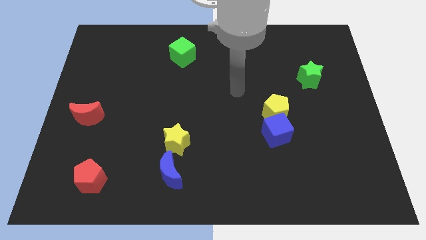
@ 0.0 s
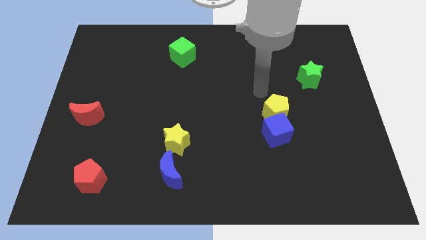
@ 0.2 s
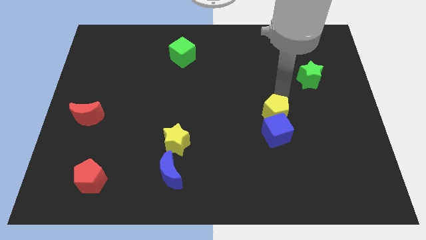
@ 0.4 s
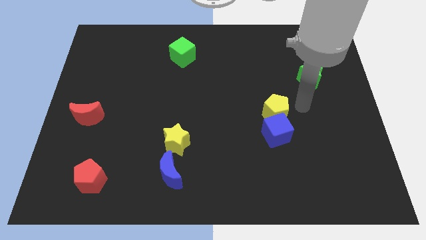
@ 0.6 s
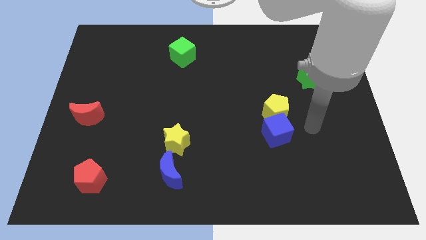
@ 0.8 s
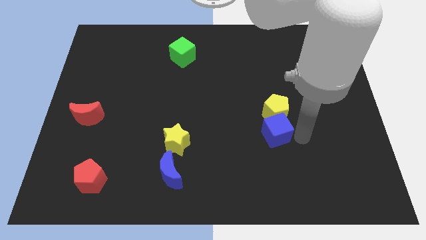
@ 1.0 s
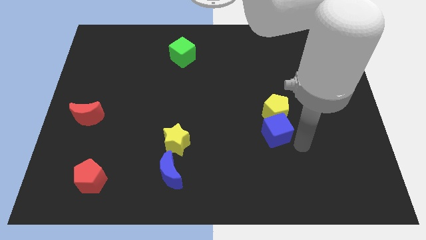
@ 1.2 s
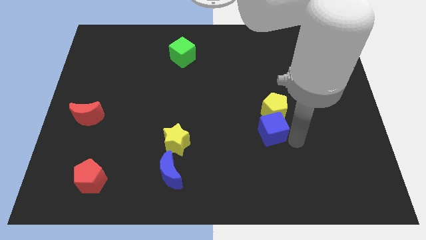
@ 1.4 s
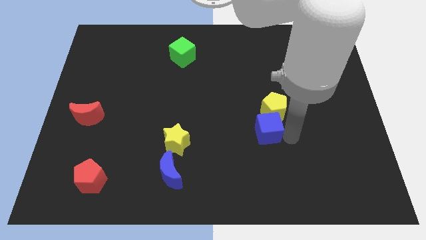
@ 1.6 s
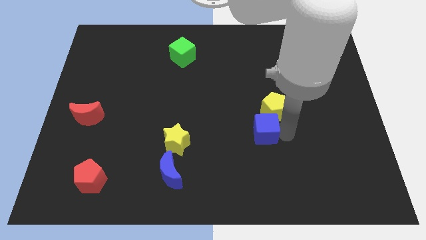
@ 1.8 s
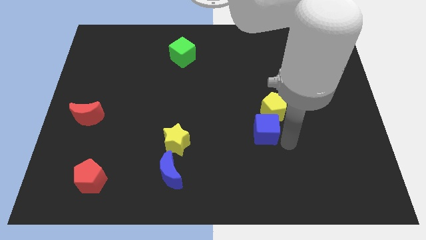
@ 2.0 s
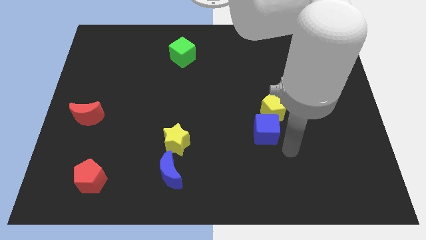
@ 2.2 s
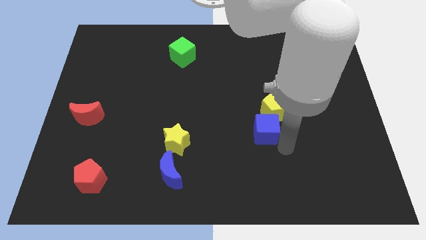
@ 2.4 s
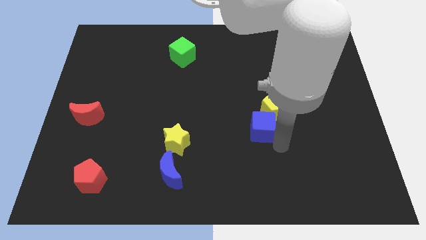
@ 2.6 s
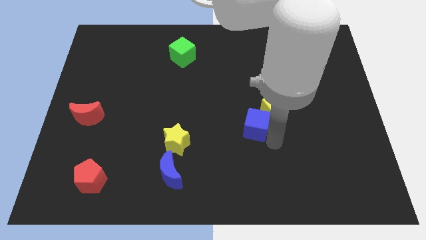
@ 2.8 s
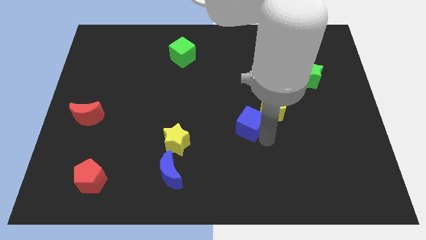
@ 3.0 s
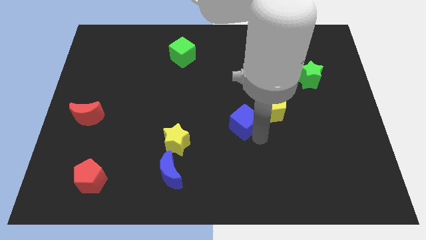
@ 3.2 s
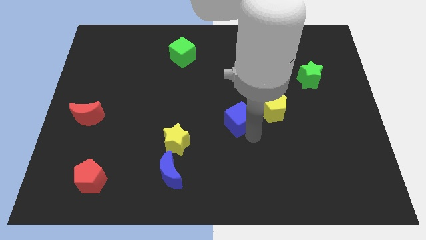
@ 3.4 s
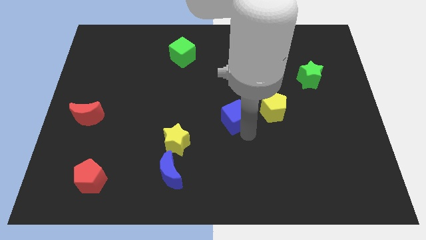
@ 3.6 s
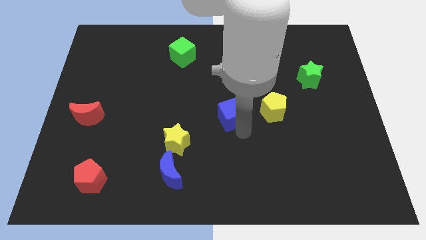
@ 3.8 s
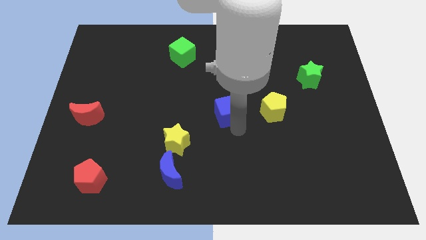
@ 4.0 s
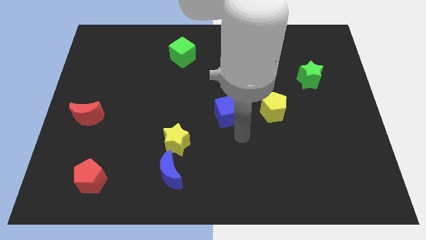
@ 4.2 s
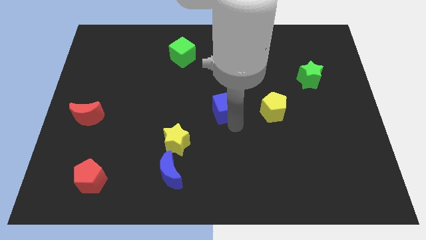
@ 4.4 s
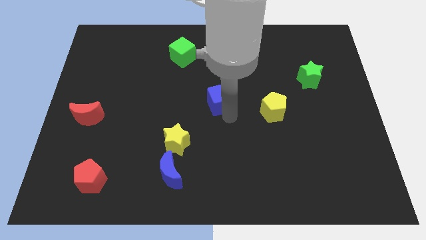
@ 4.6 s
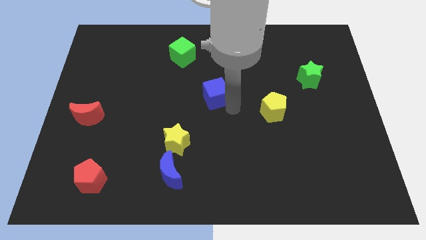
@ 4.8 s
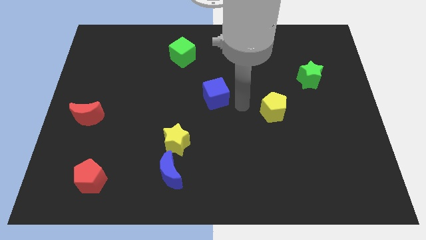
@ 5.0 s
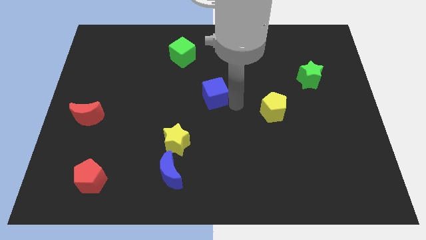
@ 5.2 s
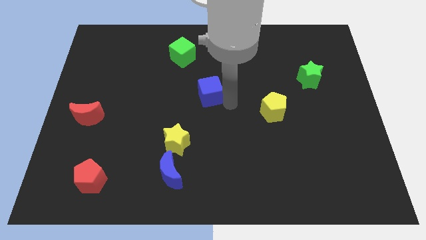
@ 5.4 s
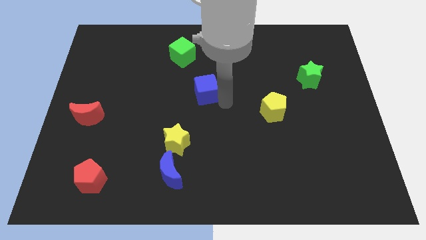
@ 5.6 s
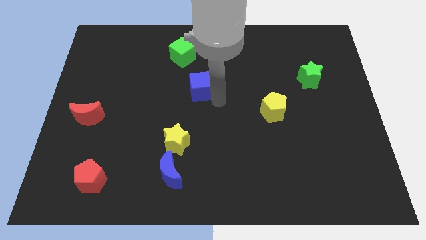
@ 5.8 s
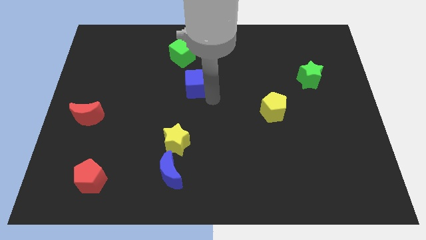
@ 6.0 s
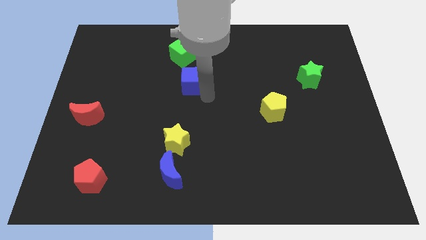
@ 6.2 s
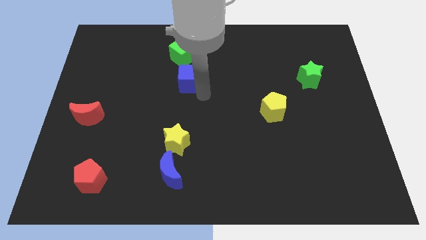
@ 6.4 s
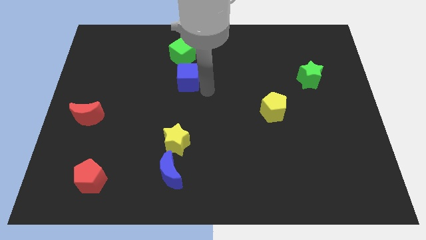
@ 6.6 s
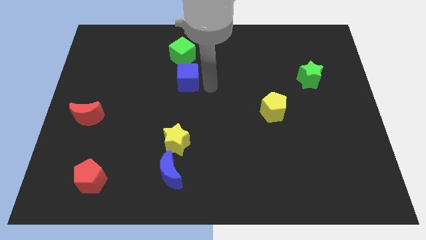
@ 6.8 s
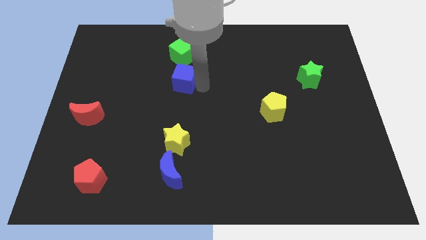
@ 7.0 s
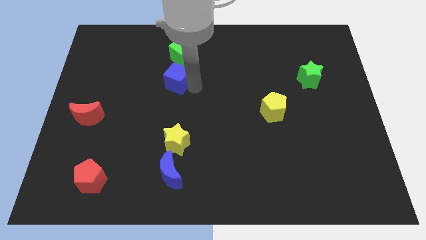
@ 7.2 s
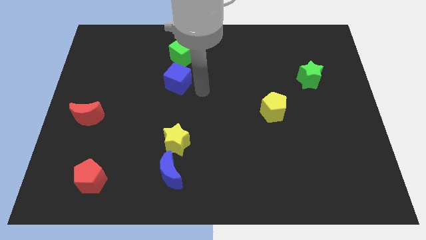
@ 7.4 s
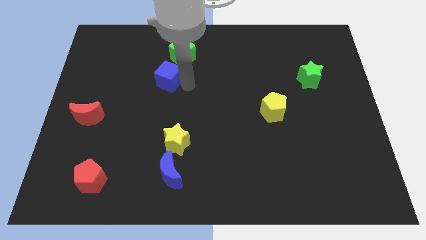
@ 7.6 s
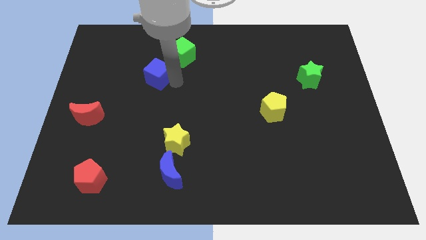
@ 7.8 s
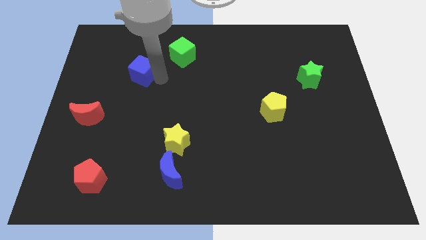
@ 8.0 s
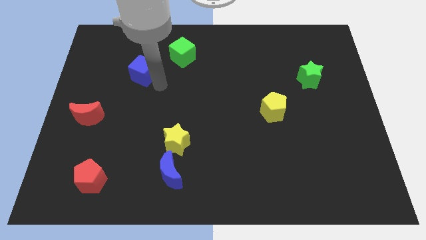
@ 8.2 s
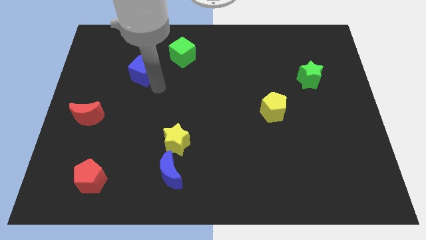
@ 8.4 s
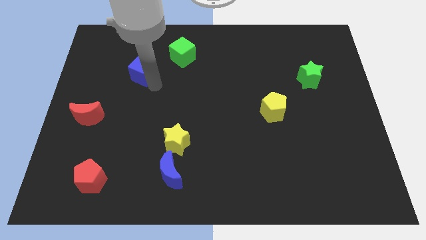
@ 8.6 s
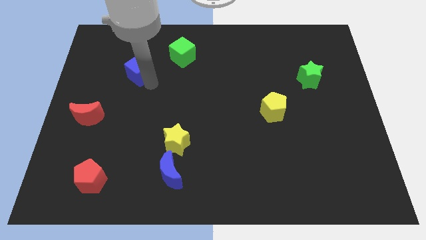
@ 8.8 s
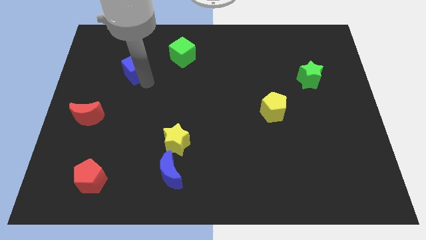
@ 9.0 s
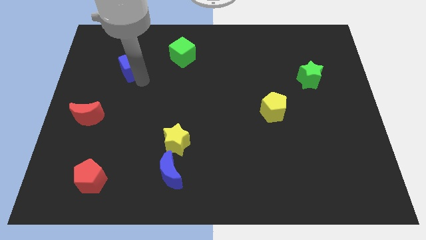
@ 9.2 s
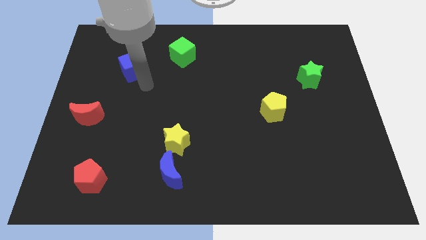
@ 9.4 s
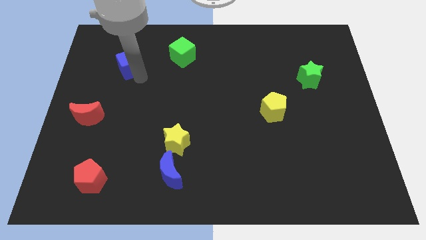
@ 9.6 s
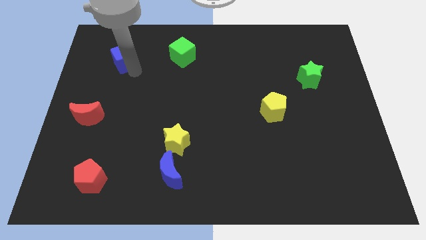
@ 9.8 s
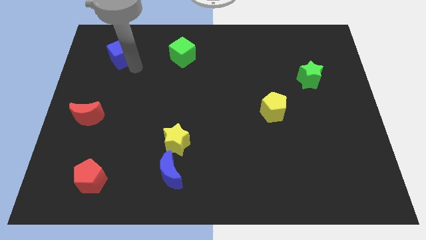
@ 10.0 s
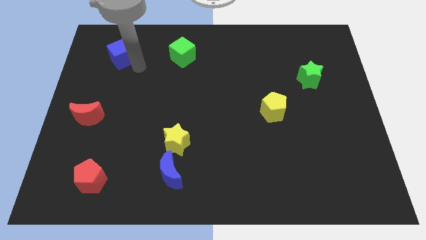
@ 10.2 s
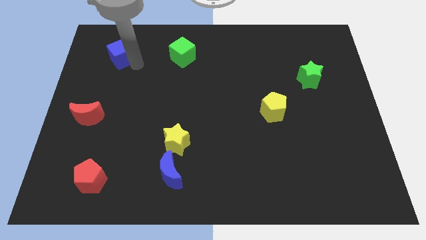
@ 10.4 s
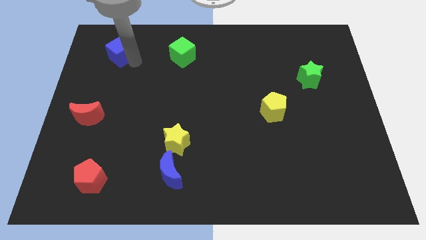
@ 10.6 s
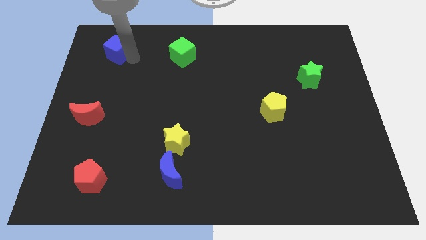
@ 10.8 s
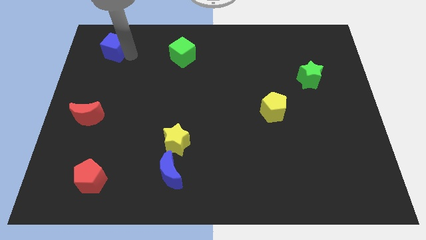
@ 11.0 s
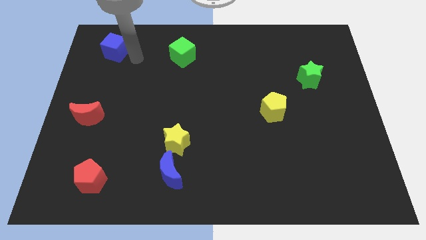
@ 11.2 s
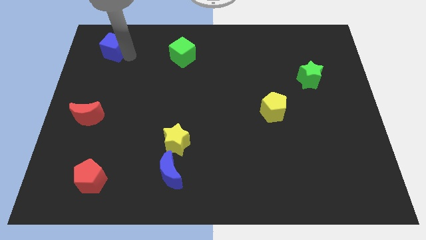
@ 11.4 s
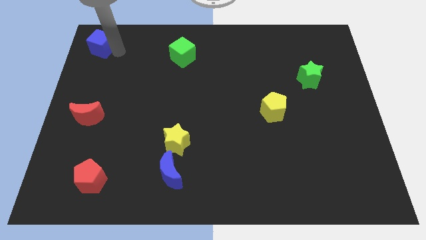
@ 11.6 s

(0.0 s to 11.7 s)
move the blue cube to the upper left corner
